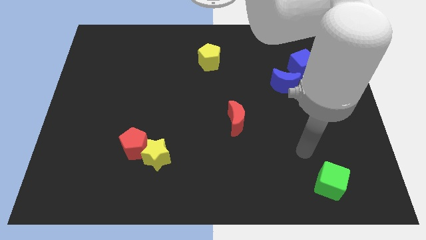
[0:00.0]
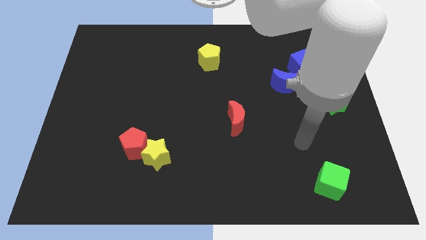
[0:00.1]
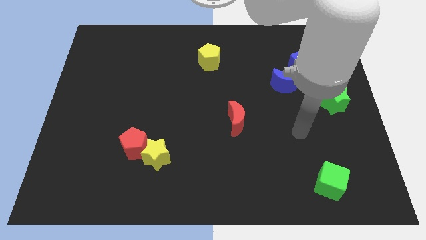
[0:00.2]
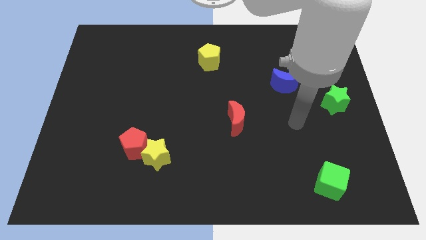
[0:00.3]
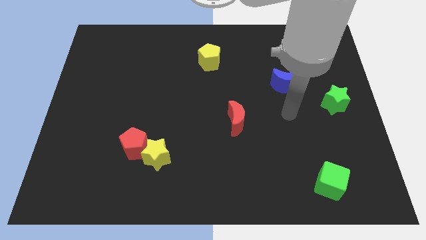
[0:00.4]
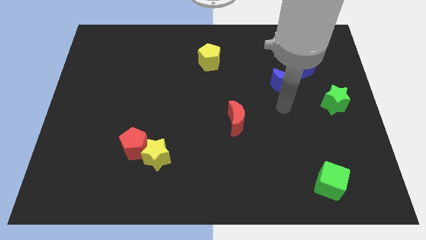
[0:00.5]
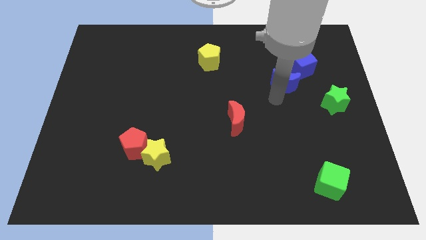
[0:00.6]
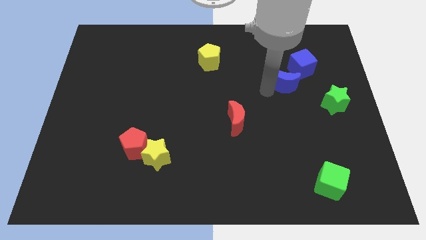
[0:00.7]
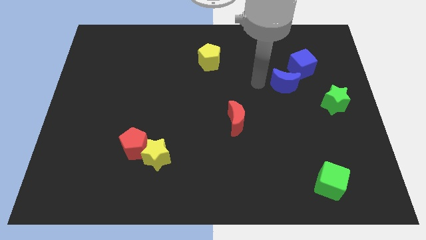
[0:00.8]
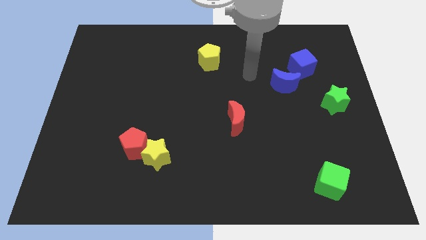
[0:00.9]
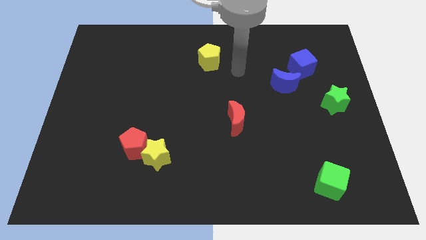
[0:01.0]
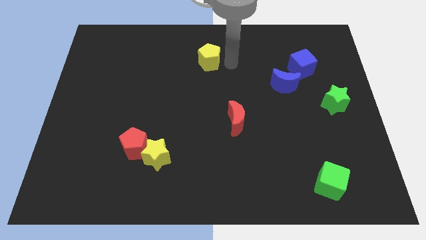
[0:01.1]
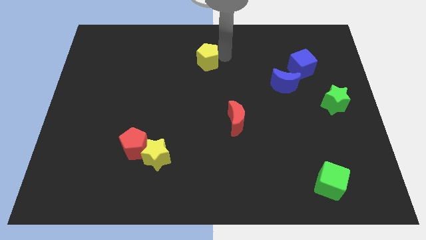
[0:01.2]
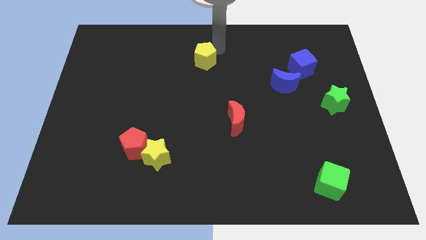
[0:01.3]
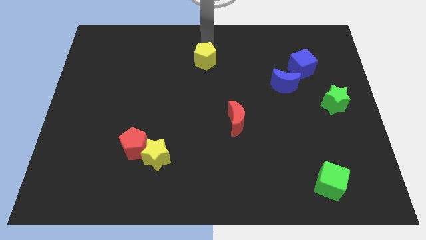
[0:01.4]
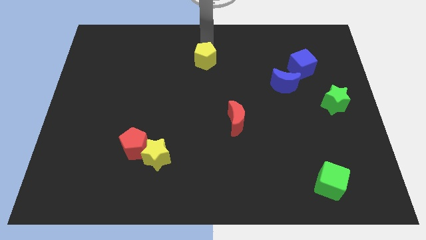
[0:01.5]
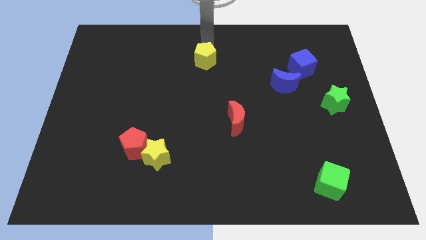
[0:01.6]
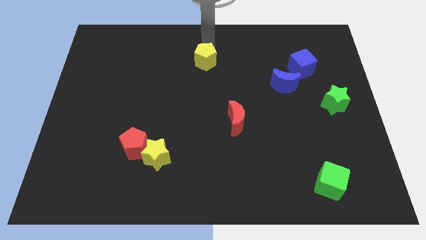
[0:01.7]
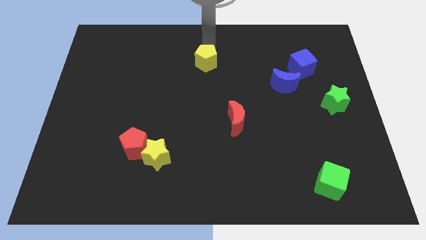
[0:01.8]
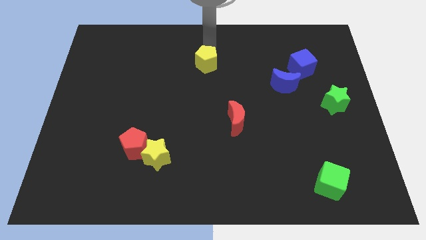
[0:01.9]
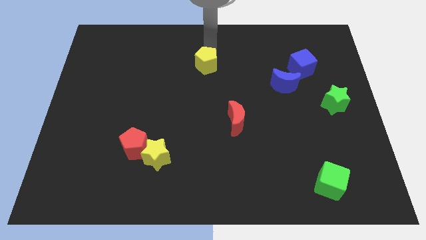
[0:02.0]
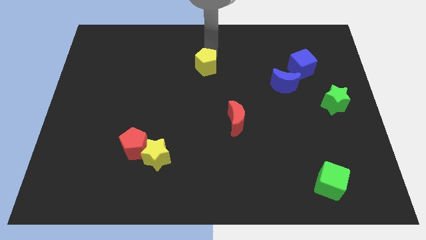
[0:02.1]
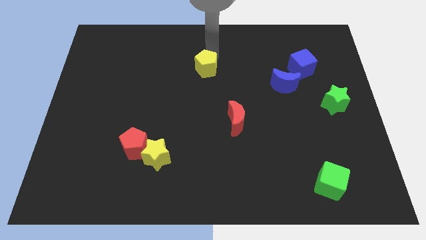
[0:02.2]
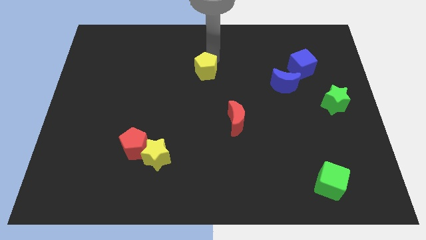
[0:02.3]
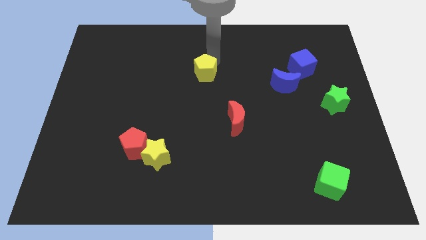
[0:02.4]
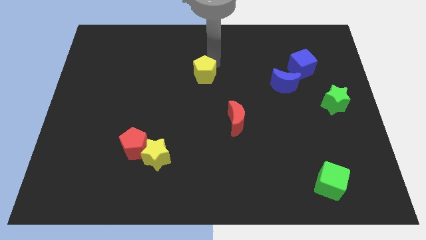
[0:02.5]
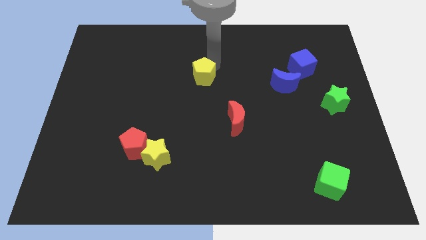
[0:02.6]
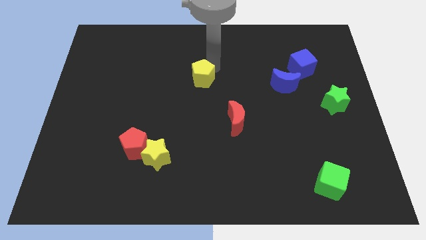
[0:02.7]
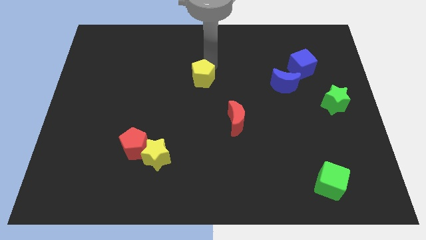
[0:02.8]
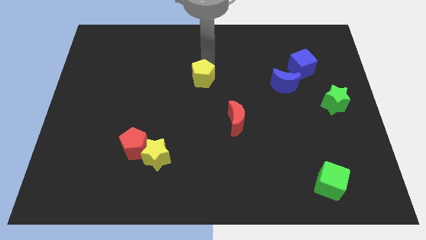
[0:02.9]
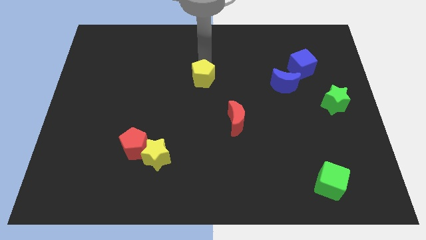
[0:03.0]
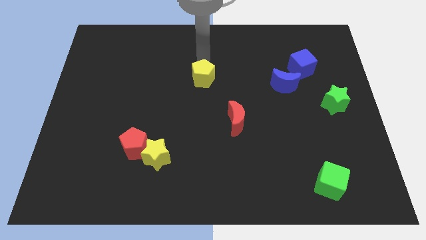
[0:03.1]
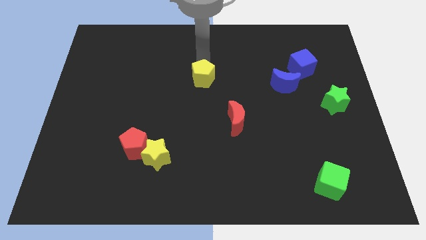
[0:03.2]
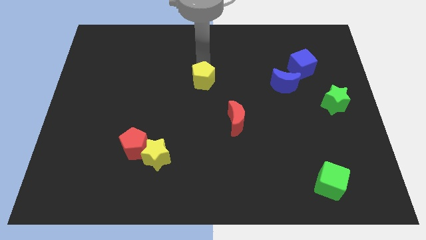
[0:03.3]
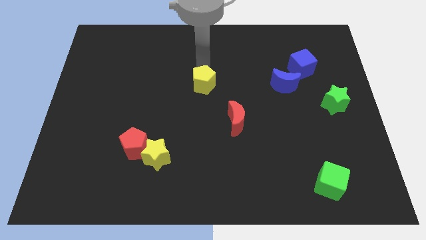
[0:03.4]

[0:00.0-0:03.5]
move the yellow pentagon down a bit

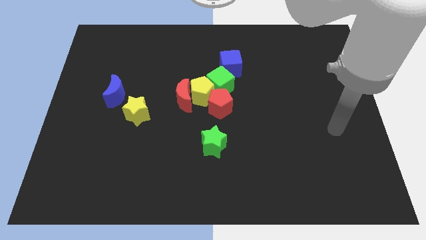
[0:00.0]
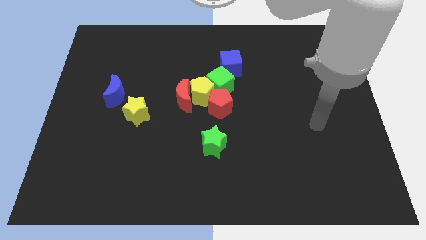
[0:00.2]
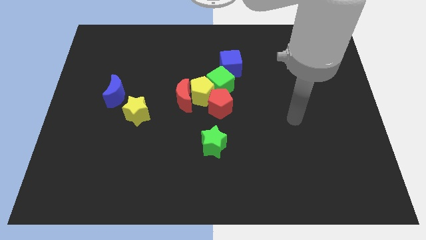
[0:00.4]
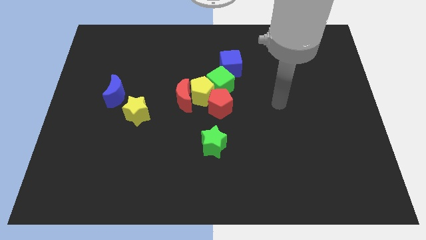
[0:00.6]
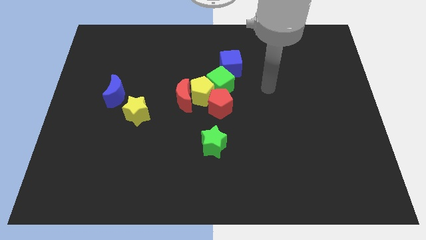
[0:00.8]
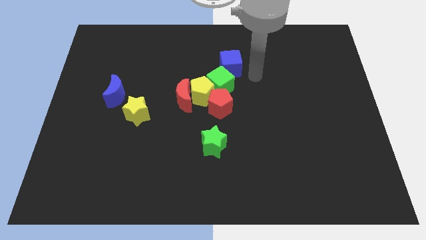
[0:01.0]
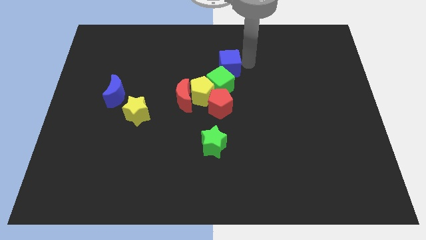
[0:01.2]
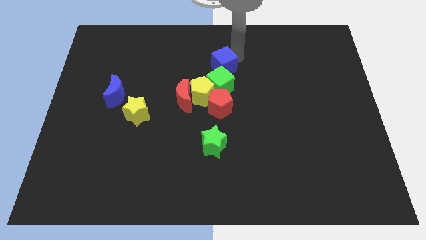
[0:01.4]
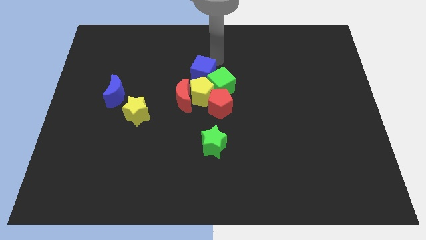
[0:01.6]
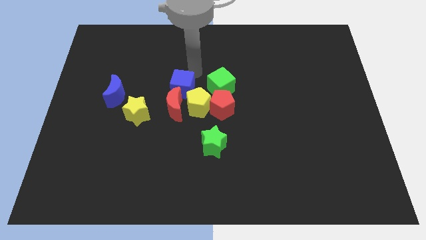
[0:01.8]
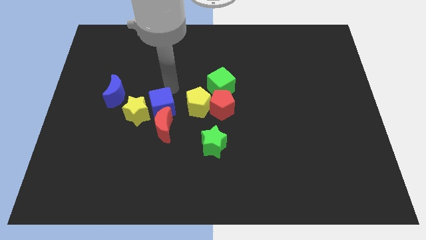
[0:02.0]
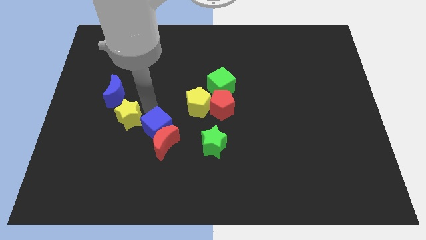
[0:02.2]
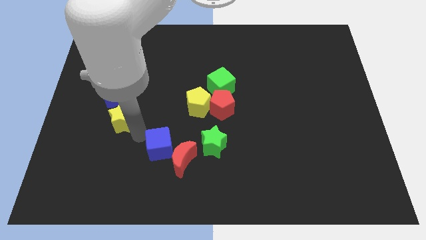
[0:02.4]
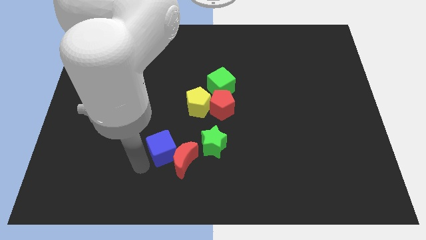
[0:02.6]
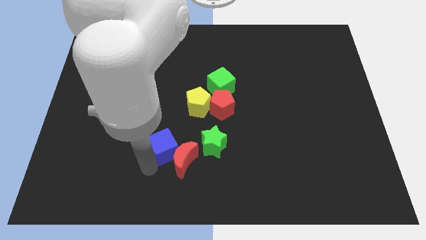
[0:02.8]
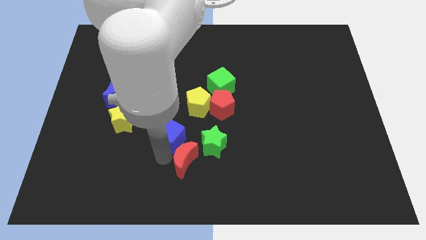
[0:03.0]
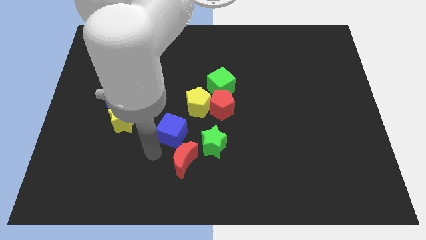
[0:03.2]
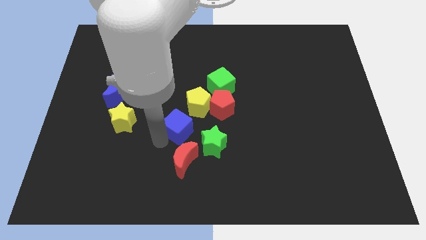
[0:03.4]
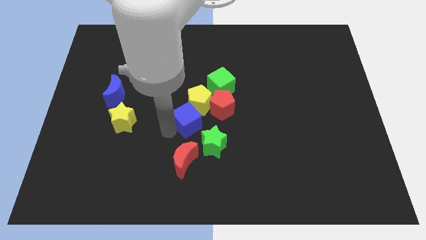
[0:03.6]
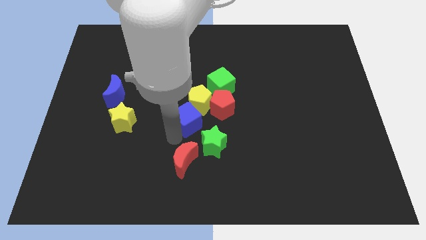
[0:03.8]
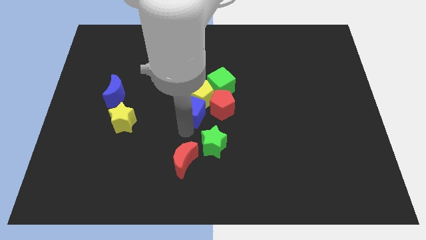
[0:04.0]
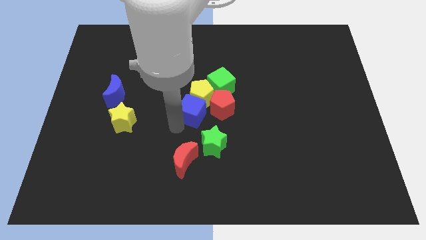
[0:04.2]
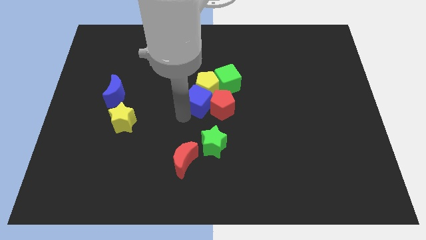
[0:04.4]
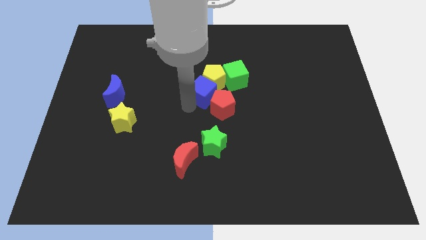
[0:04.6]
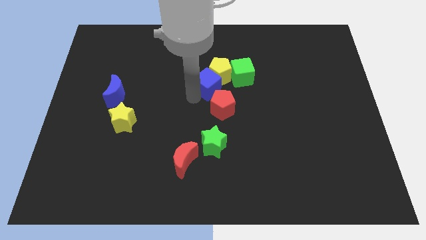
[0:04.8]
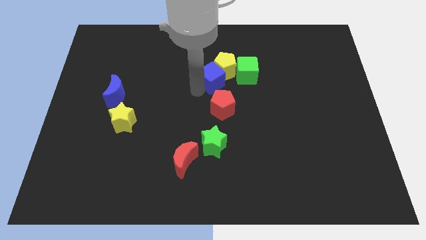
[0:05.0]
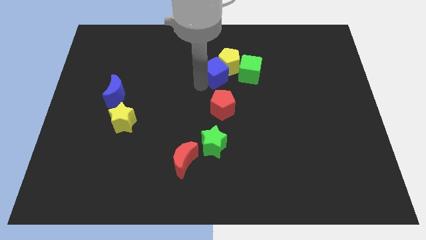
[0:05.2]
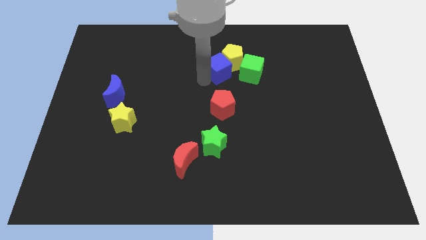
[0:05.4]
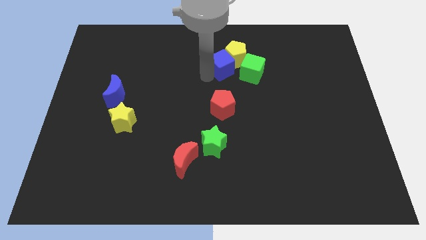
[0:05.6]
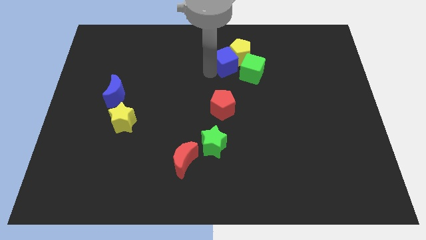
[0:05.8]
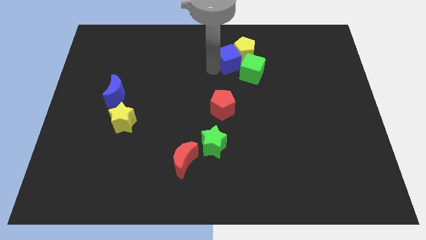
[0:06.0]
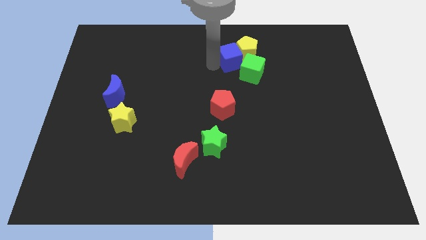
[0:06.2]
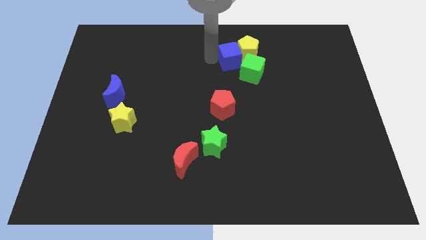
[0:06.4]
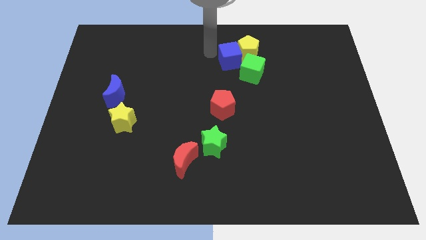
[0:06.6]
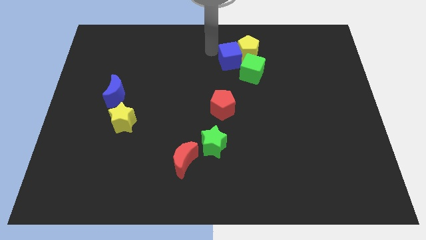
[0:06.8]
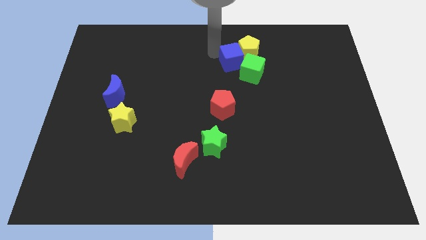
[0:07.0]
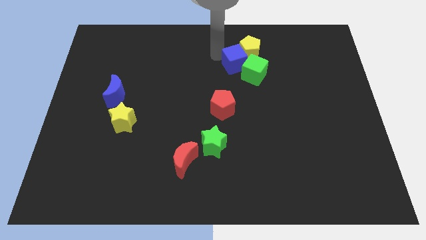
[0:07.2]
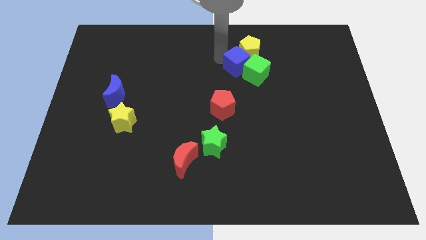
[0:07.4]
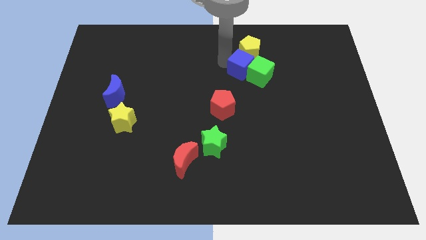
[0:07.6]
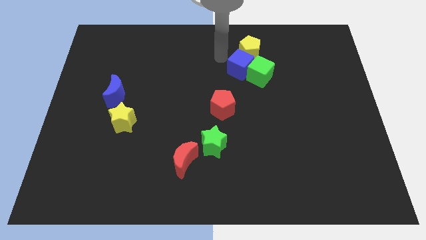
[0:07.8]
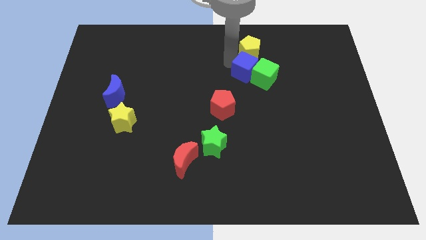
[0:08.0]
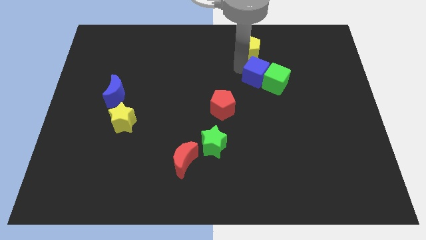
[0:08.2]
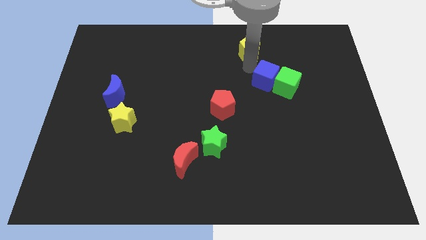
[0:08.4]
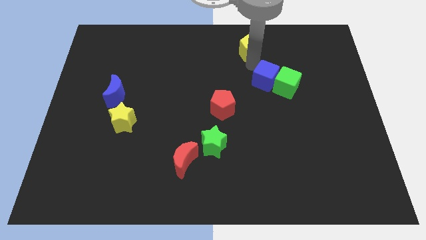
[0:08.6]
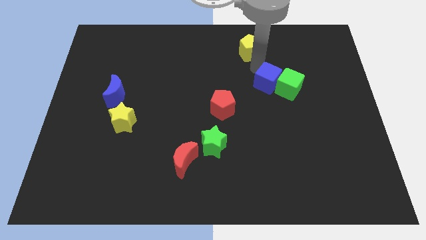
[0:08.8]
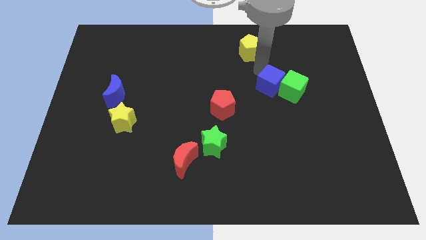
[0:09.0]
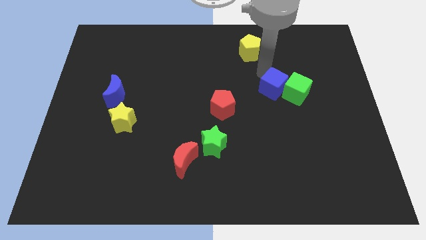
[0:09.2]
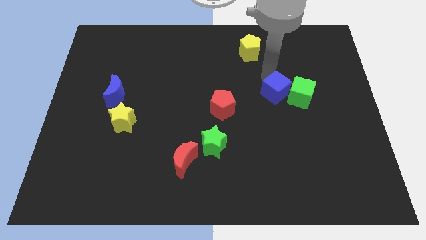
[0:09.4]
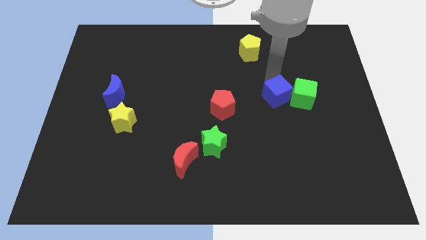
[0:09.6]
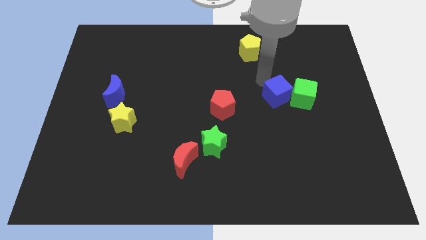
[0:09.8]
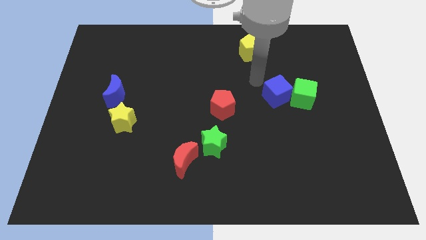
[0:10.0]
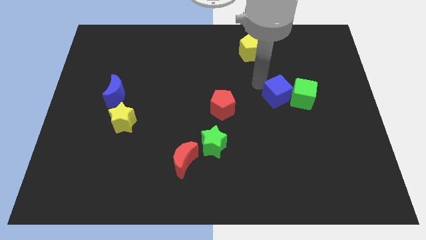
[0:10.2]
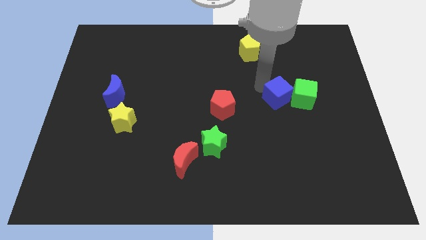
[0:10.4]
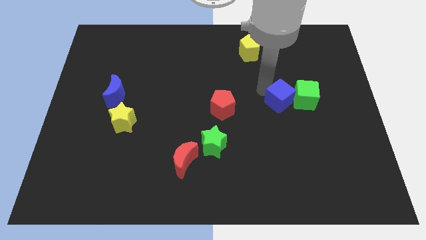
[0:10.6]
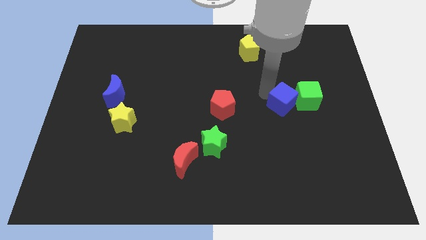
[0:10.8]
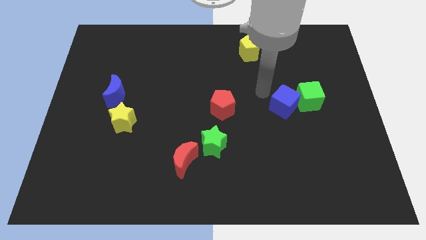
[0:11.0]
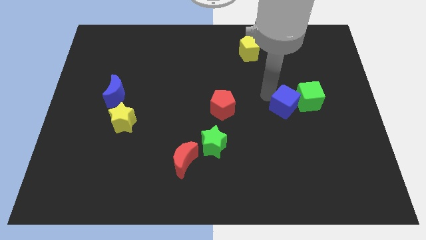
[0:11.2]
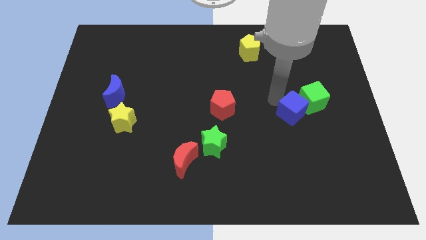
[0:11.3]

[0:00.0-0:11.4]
move the blue cube downwards and to the right
